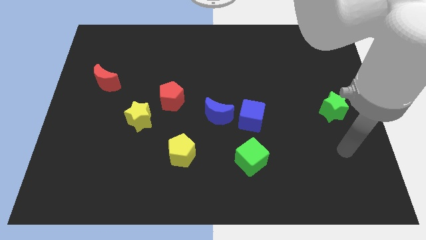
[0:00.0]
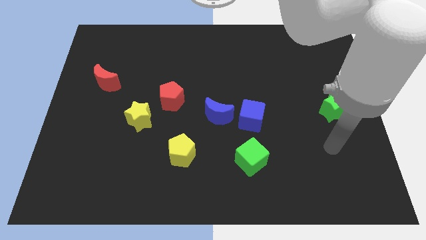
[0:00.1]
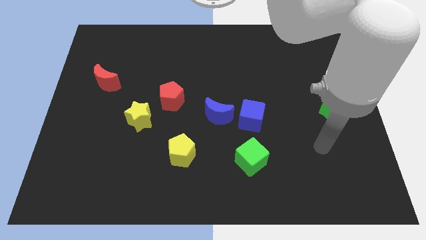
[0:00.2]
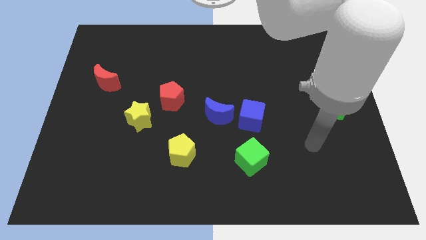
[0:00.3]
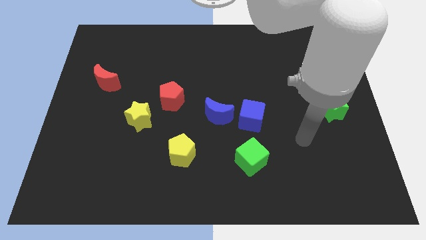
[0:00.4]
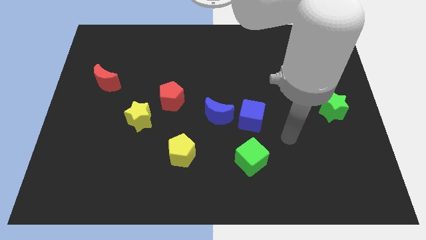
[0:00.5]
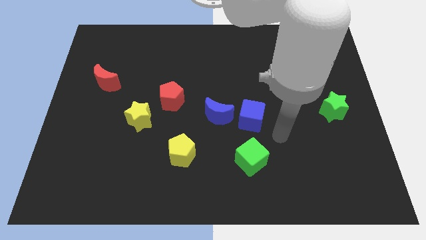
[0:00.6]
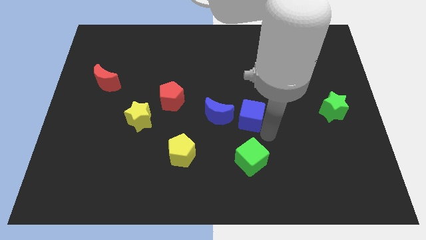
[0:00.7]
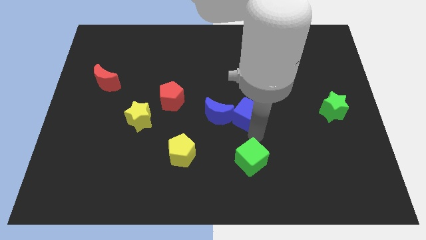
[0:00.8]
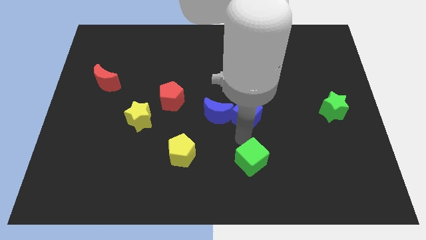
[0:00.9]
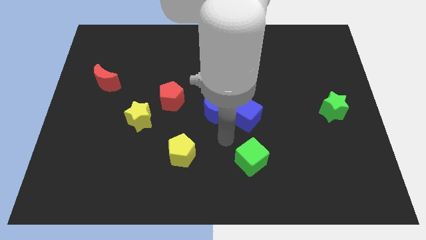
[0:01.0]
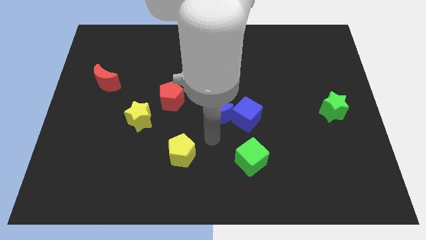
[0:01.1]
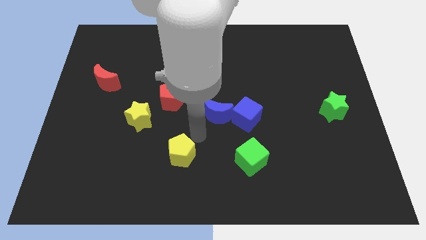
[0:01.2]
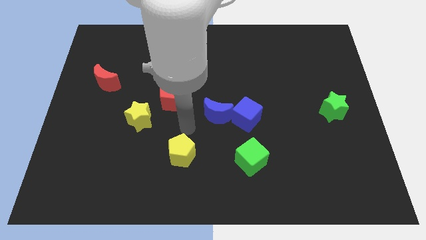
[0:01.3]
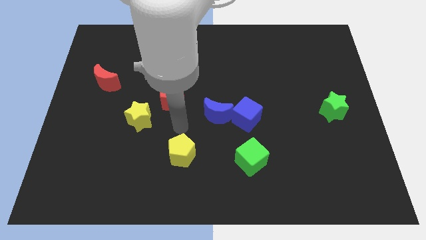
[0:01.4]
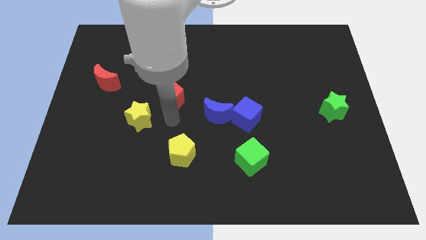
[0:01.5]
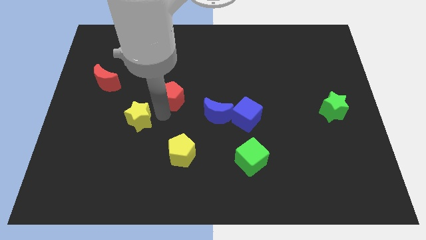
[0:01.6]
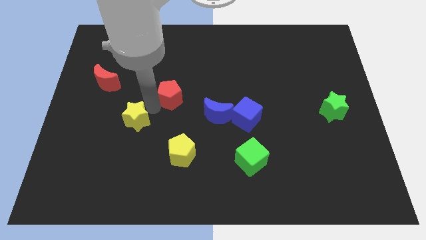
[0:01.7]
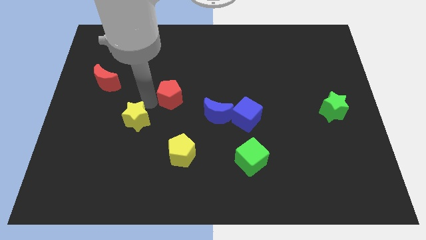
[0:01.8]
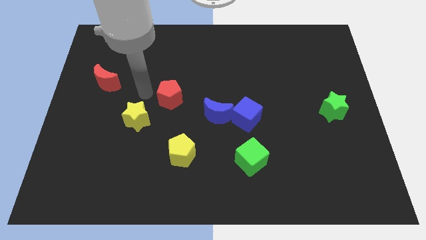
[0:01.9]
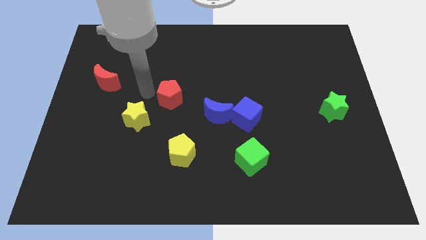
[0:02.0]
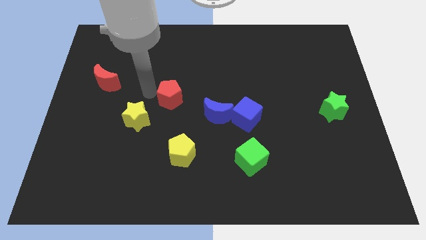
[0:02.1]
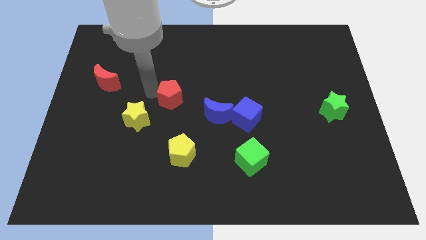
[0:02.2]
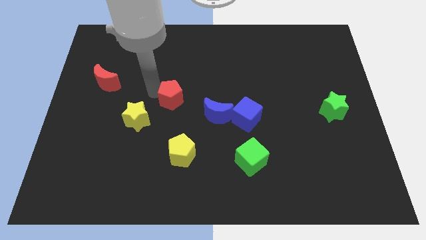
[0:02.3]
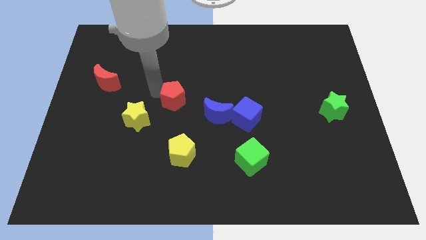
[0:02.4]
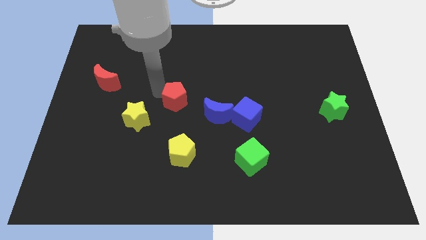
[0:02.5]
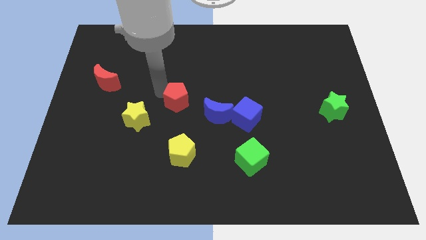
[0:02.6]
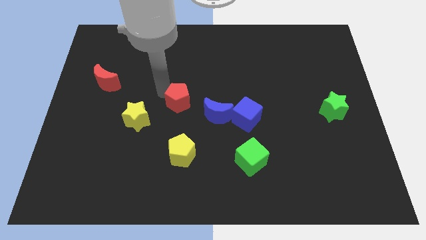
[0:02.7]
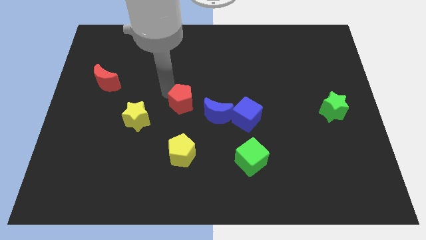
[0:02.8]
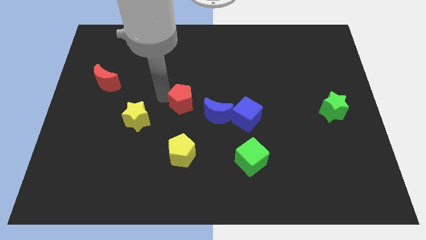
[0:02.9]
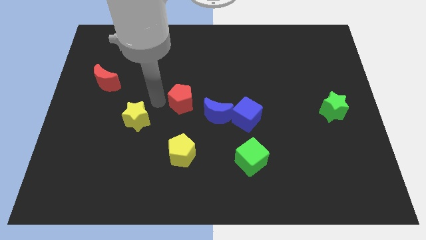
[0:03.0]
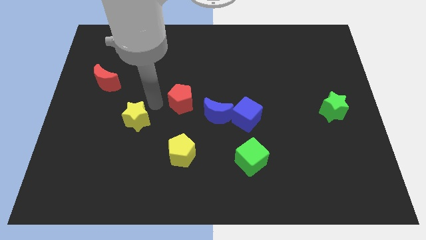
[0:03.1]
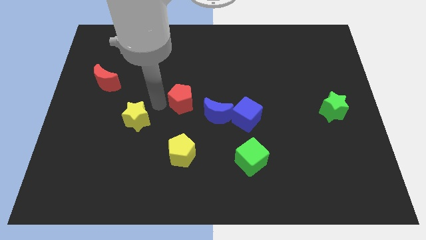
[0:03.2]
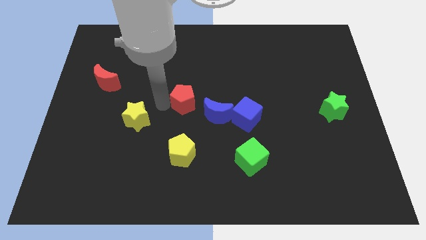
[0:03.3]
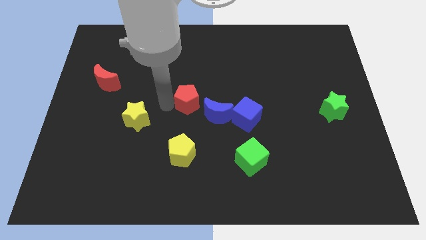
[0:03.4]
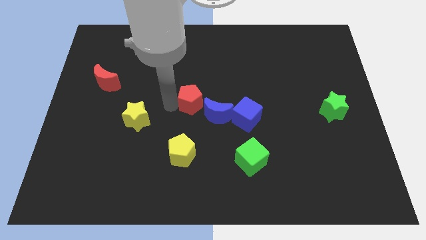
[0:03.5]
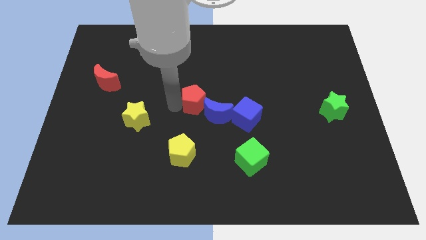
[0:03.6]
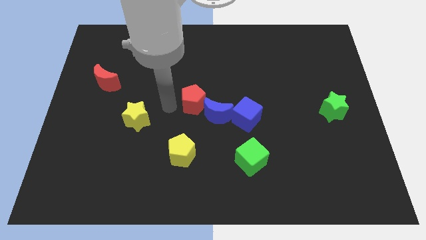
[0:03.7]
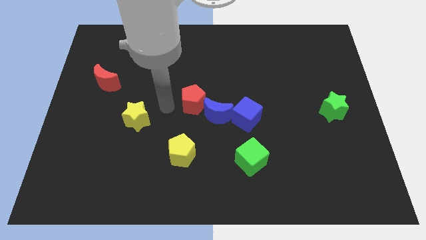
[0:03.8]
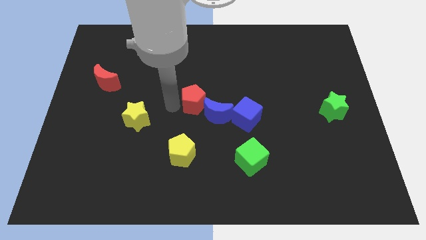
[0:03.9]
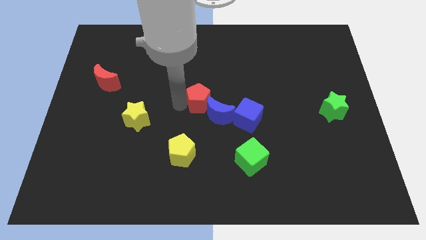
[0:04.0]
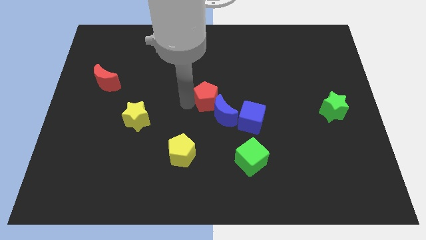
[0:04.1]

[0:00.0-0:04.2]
push the red pentagon right slightly

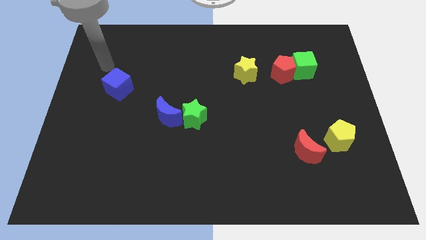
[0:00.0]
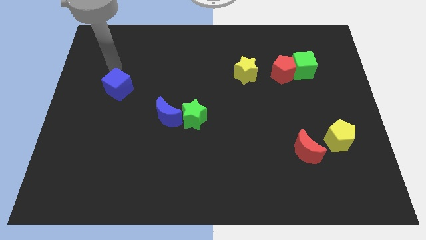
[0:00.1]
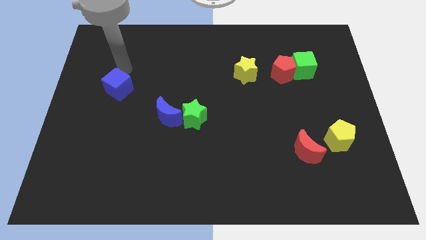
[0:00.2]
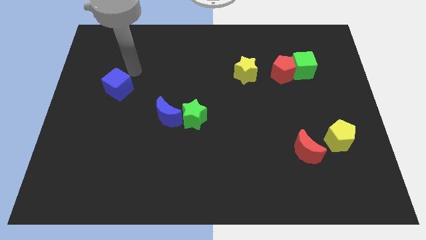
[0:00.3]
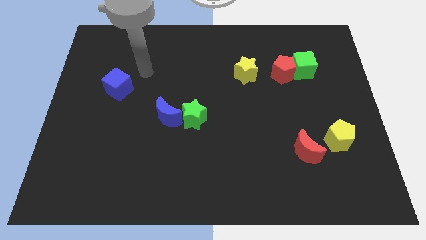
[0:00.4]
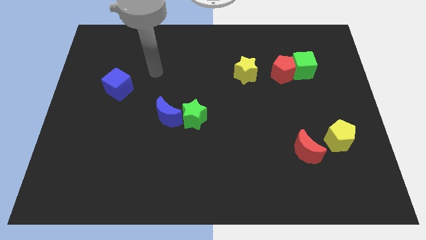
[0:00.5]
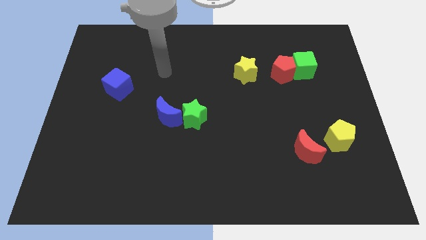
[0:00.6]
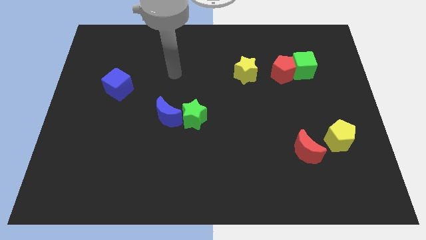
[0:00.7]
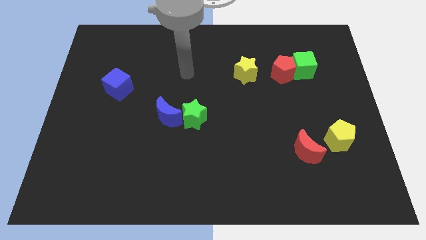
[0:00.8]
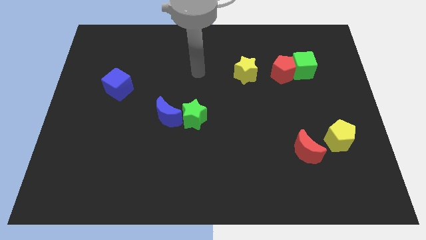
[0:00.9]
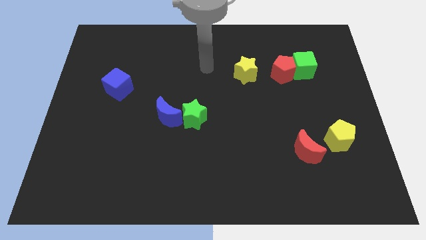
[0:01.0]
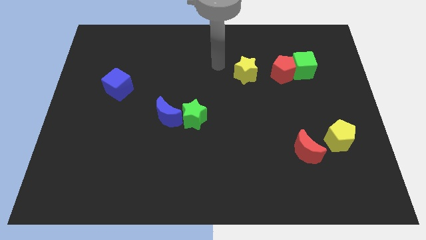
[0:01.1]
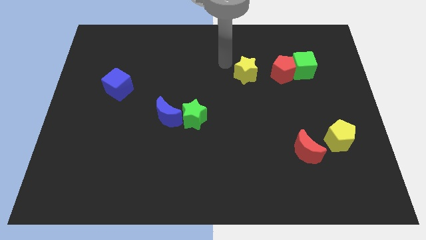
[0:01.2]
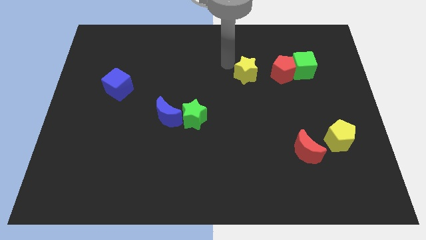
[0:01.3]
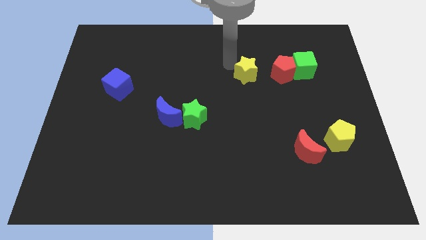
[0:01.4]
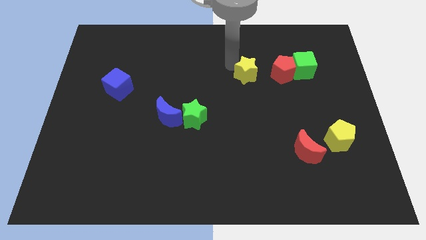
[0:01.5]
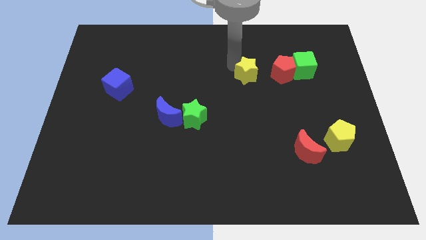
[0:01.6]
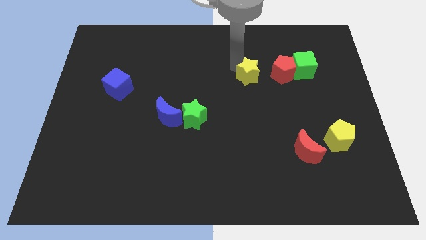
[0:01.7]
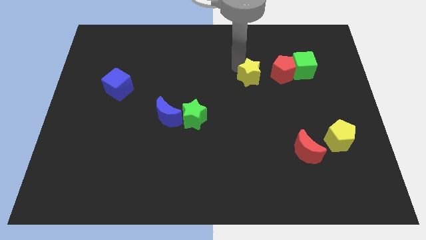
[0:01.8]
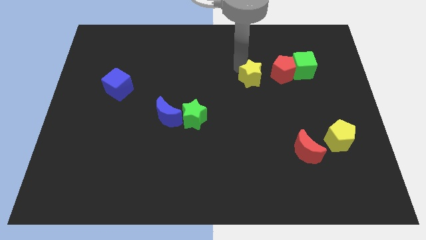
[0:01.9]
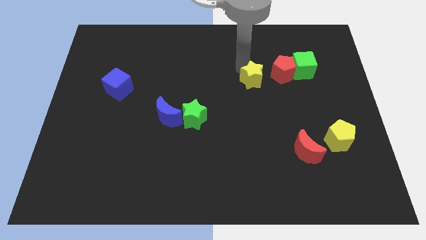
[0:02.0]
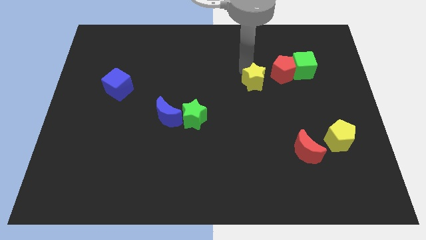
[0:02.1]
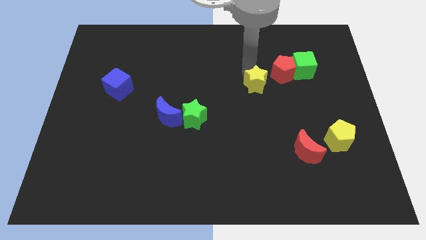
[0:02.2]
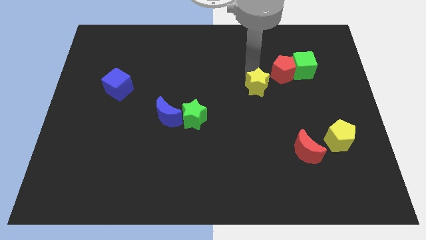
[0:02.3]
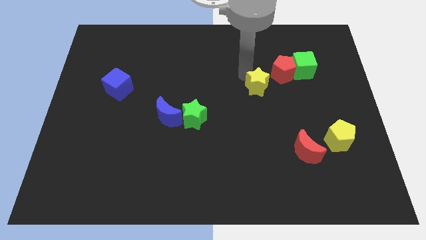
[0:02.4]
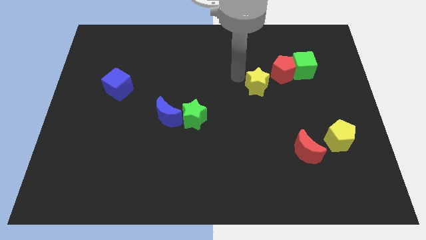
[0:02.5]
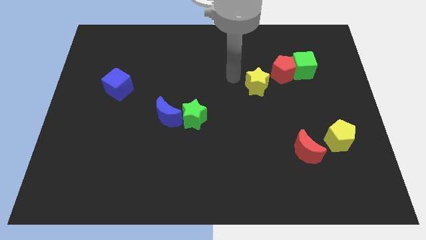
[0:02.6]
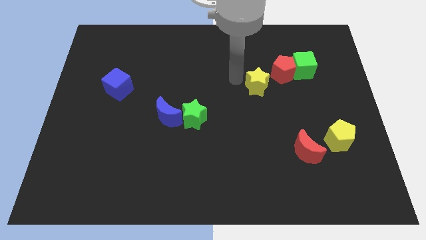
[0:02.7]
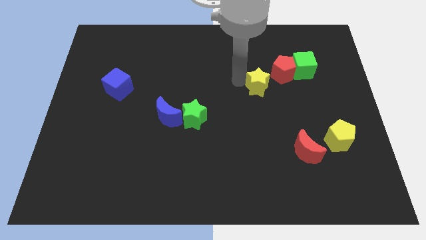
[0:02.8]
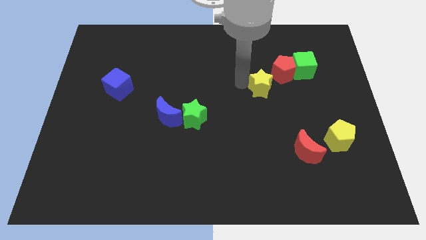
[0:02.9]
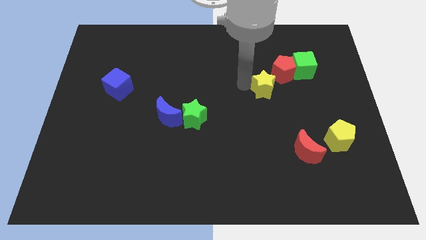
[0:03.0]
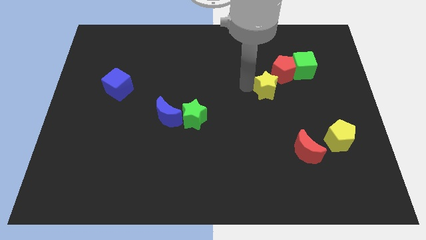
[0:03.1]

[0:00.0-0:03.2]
slightly slide the yellow star down and right diagonally

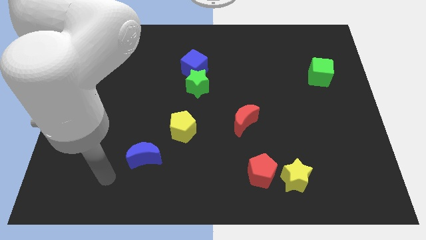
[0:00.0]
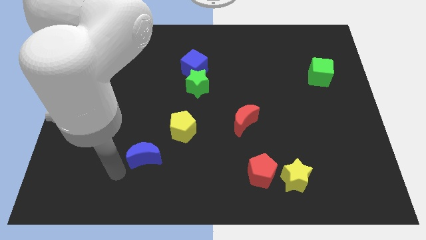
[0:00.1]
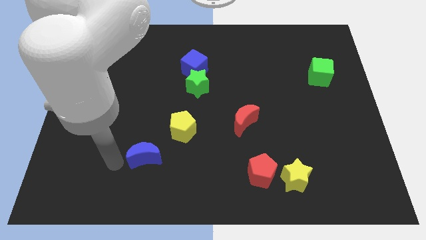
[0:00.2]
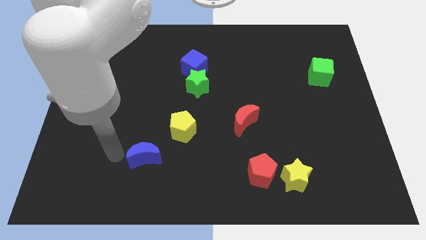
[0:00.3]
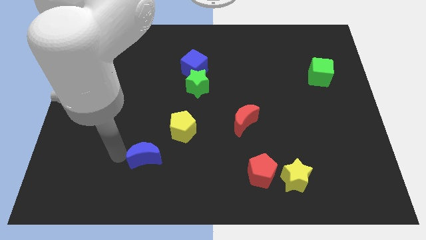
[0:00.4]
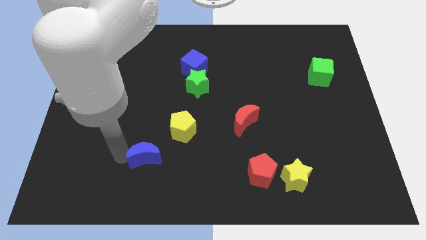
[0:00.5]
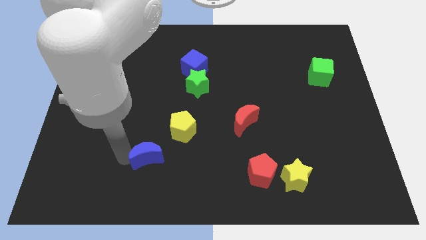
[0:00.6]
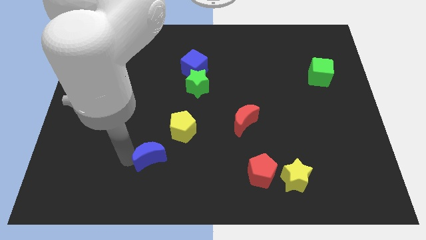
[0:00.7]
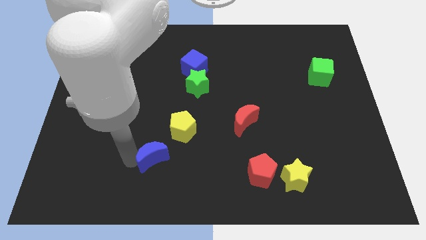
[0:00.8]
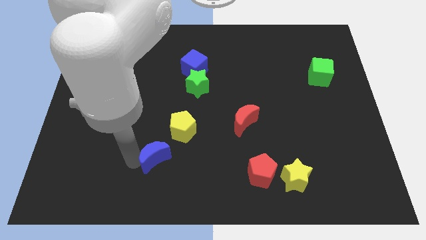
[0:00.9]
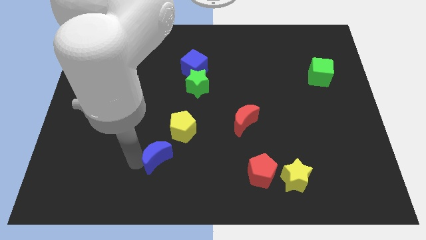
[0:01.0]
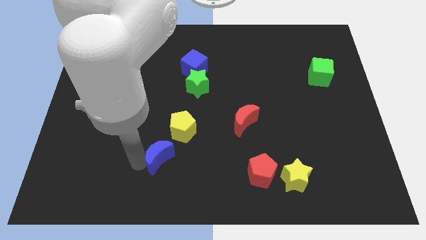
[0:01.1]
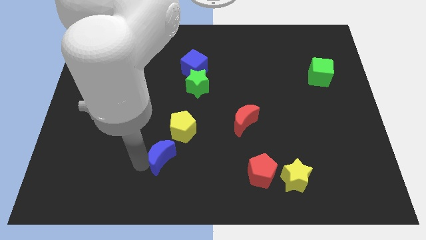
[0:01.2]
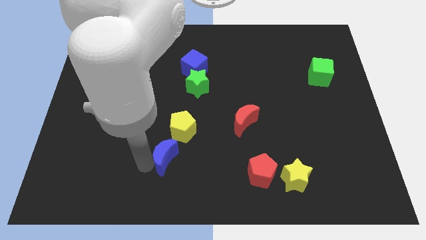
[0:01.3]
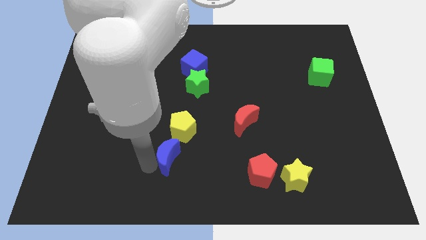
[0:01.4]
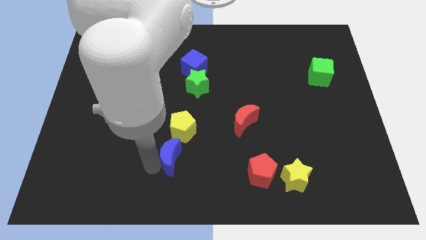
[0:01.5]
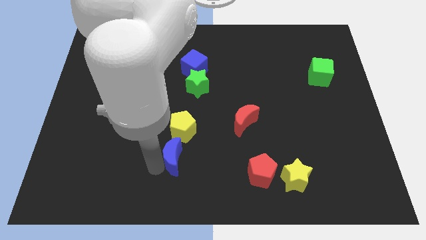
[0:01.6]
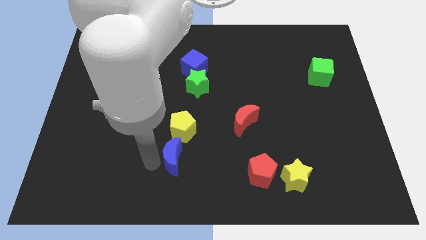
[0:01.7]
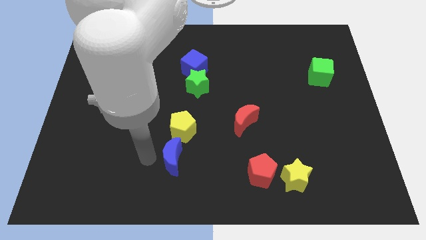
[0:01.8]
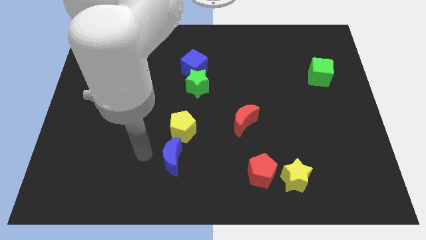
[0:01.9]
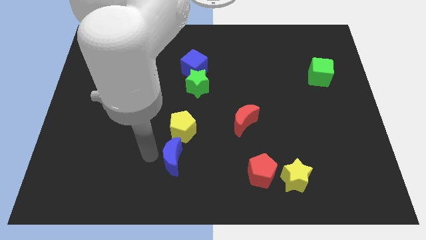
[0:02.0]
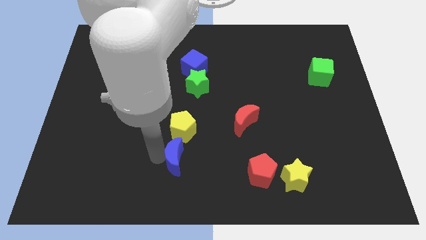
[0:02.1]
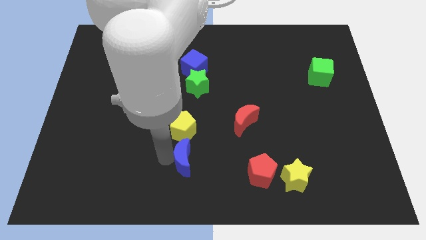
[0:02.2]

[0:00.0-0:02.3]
slightly move the blue moon to the right
